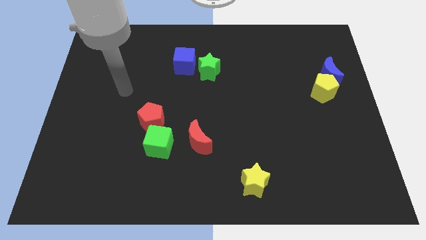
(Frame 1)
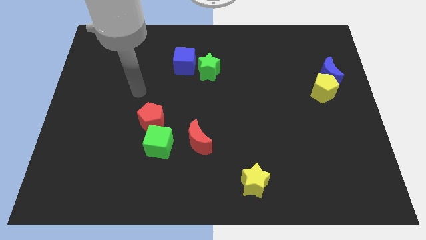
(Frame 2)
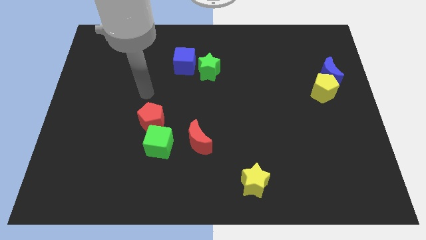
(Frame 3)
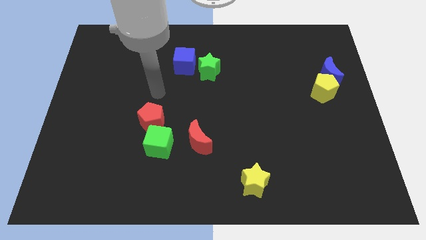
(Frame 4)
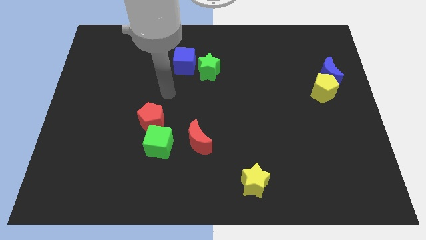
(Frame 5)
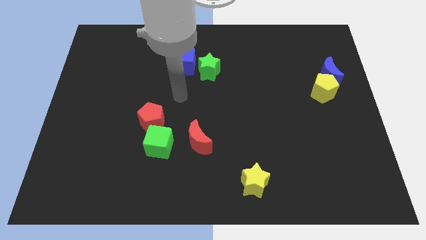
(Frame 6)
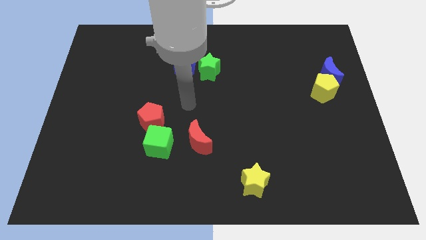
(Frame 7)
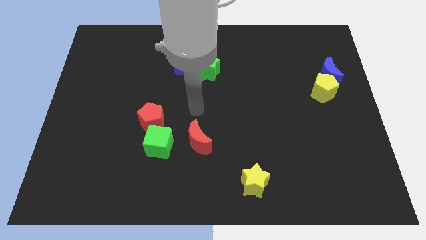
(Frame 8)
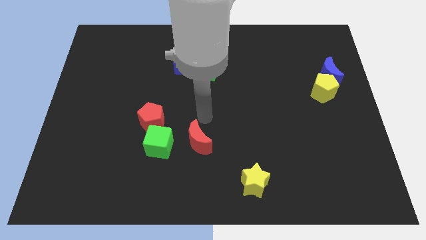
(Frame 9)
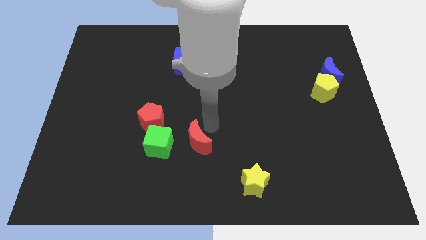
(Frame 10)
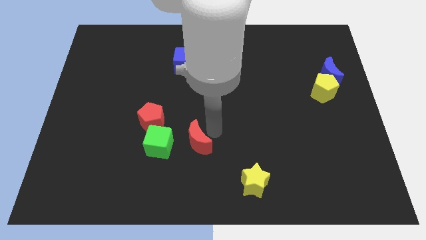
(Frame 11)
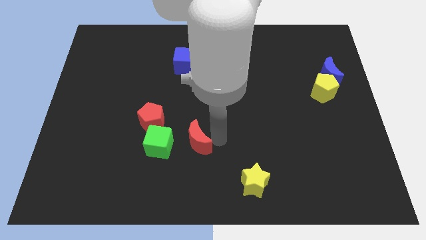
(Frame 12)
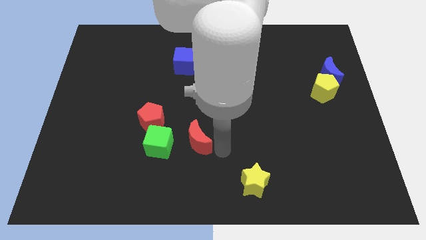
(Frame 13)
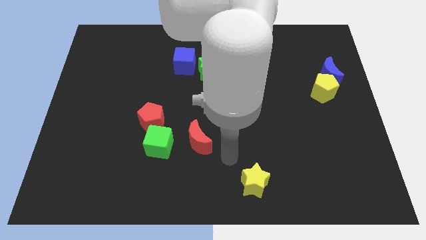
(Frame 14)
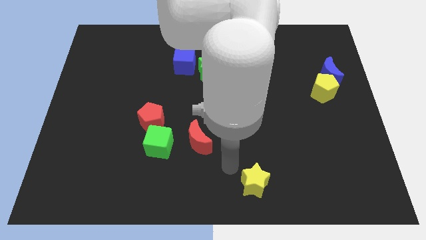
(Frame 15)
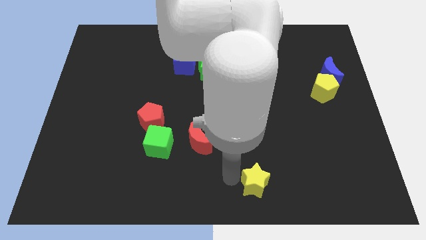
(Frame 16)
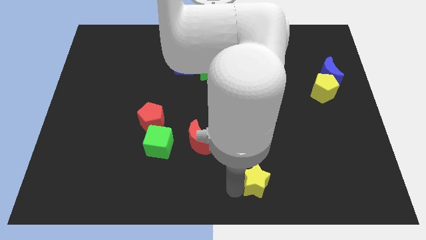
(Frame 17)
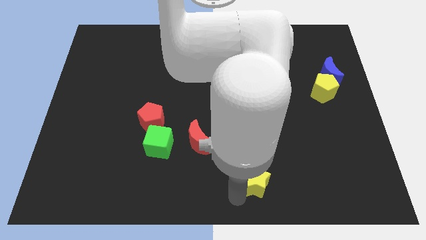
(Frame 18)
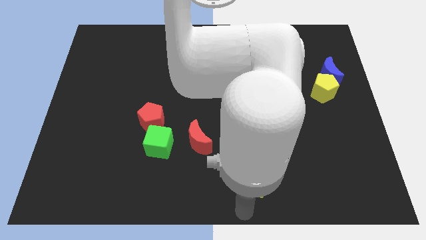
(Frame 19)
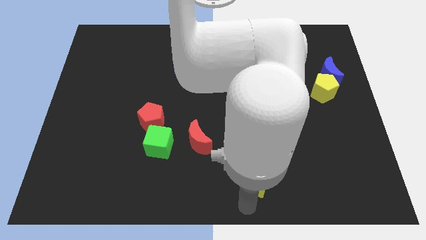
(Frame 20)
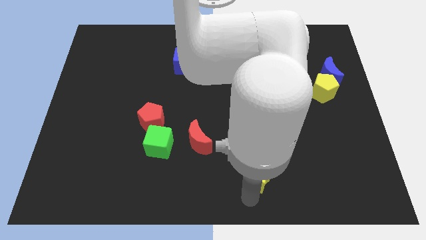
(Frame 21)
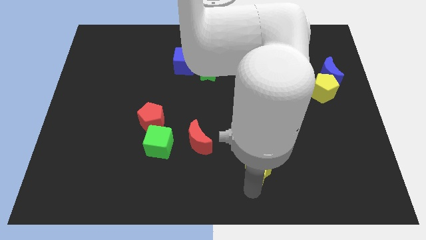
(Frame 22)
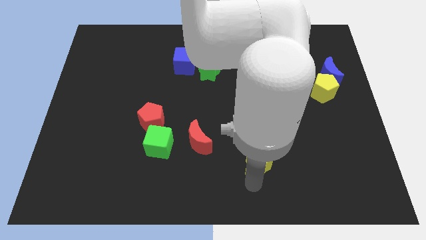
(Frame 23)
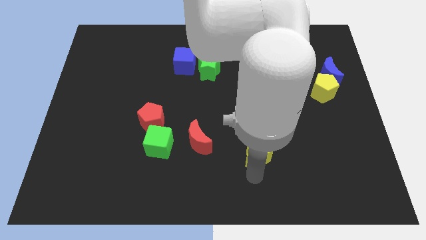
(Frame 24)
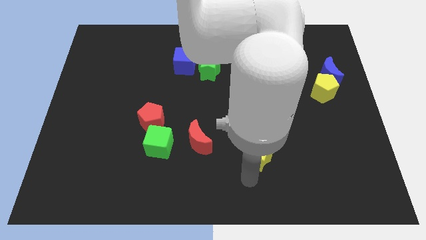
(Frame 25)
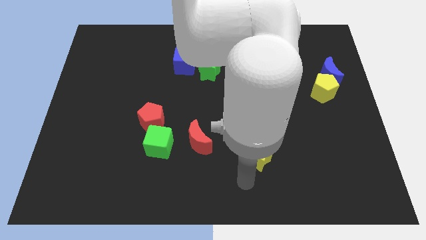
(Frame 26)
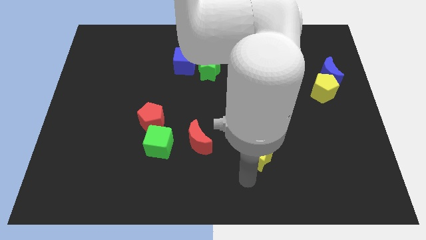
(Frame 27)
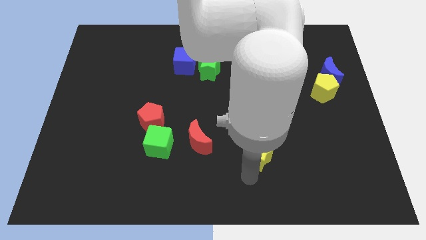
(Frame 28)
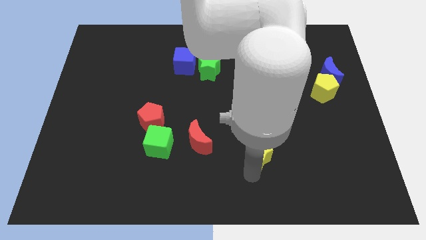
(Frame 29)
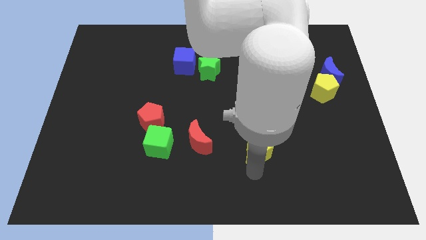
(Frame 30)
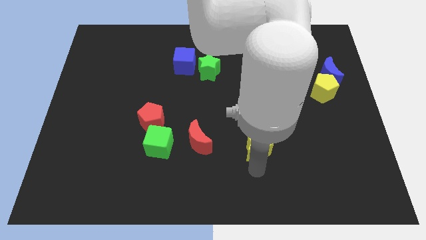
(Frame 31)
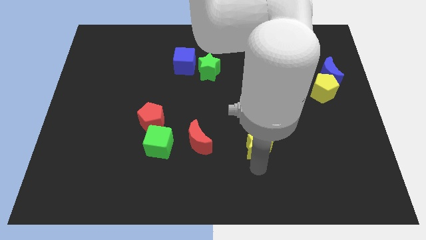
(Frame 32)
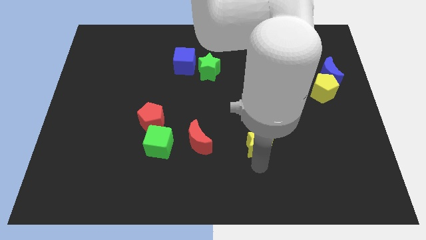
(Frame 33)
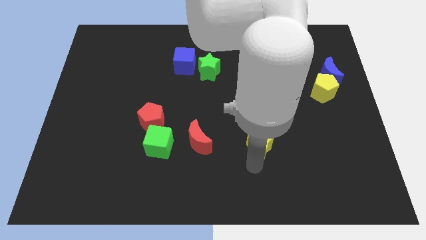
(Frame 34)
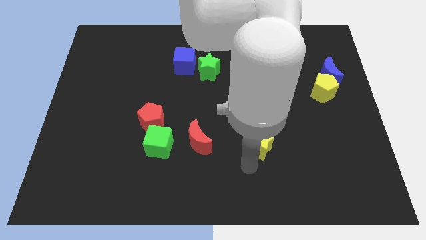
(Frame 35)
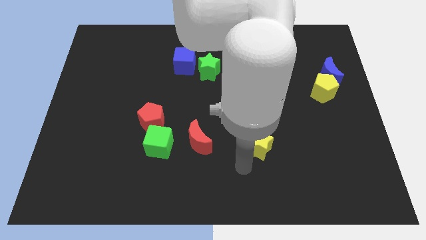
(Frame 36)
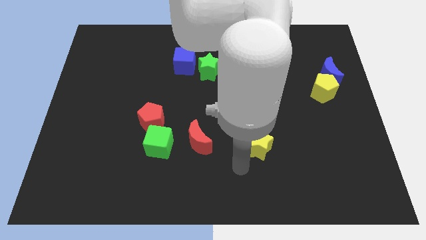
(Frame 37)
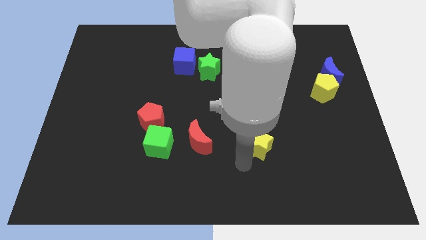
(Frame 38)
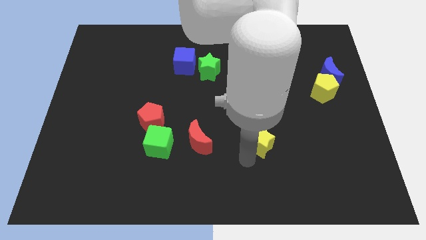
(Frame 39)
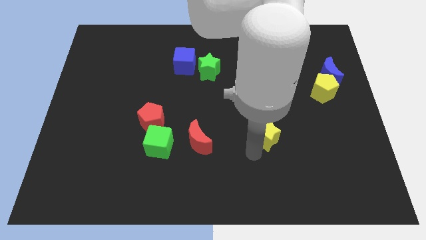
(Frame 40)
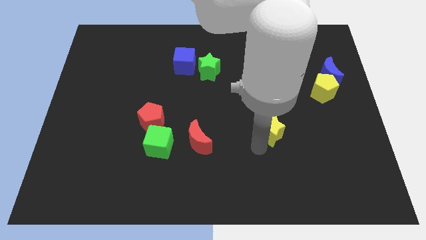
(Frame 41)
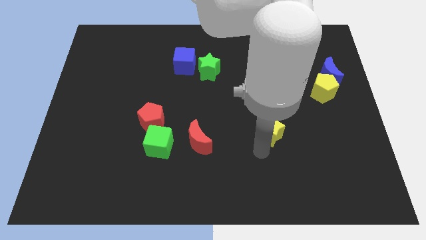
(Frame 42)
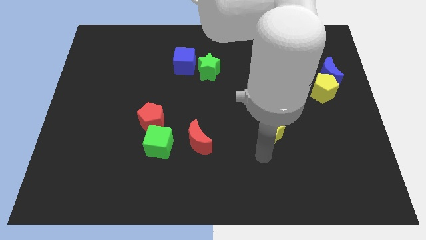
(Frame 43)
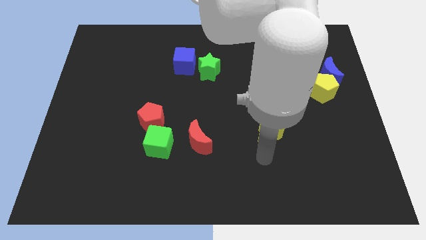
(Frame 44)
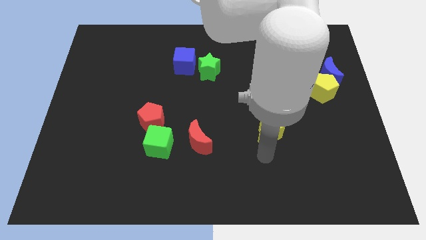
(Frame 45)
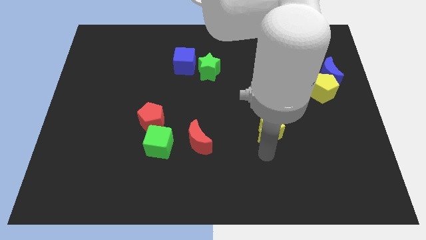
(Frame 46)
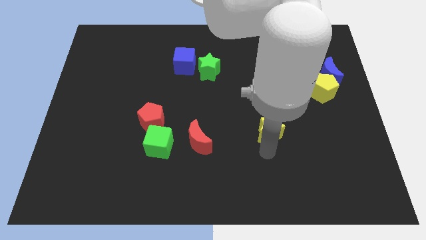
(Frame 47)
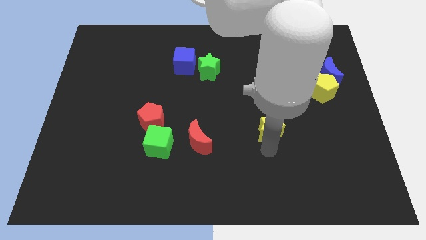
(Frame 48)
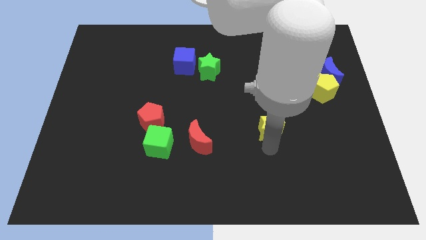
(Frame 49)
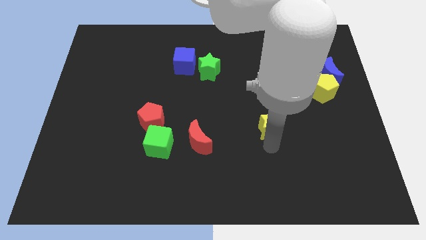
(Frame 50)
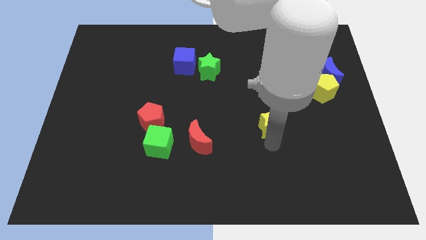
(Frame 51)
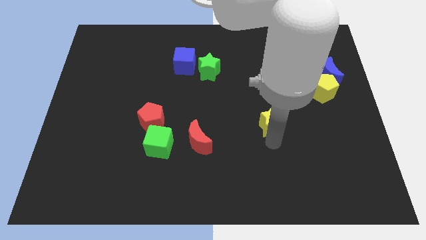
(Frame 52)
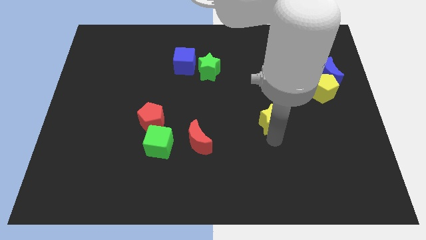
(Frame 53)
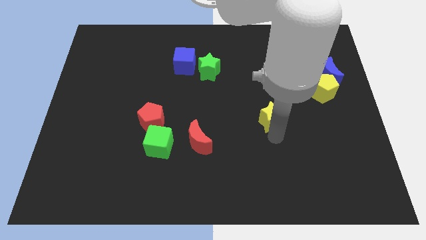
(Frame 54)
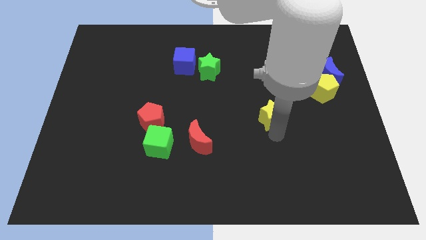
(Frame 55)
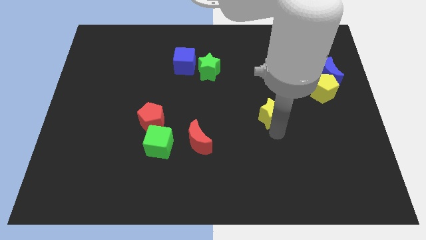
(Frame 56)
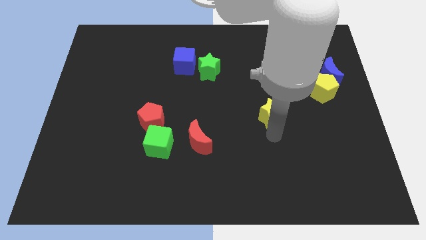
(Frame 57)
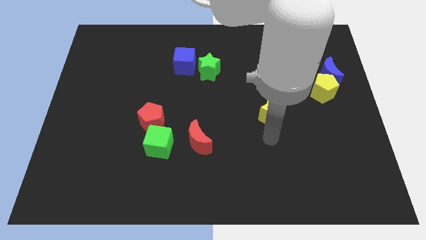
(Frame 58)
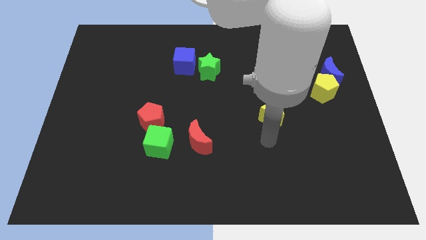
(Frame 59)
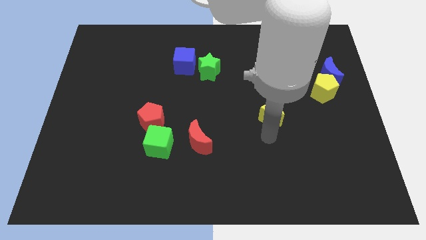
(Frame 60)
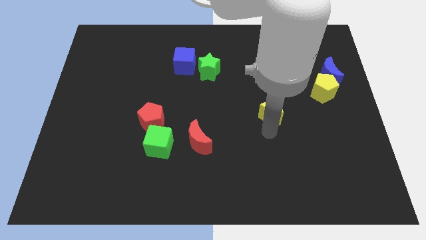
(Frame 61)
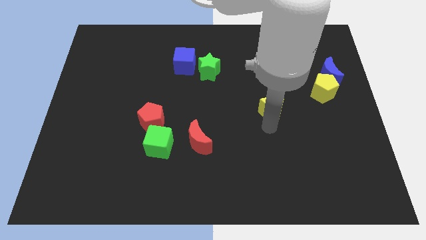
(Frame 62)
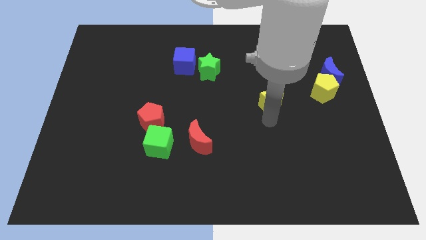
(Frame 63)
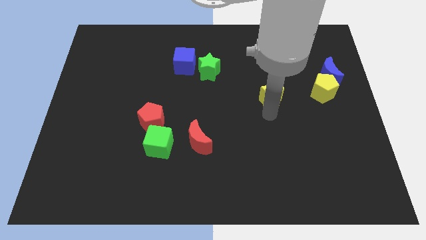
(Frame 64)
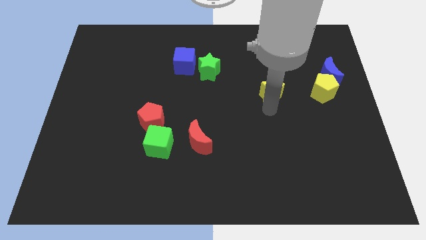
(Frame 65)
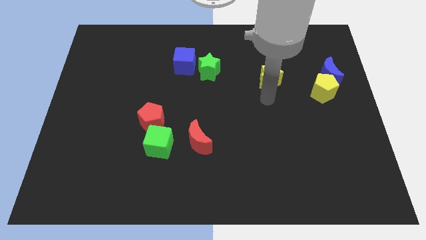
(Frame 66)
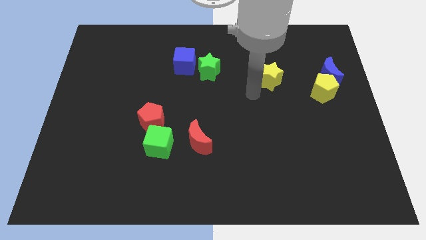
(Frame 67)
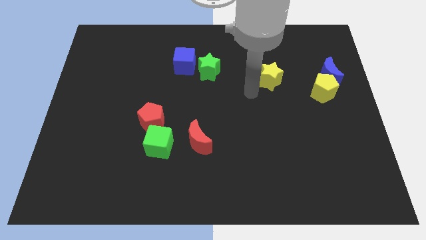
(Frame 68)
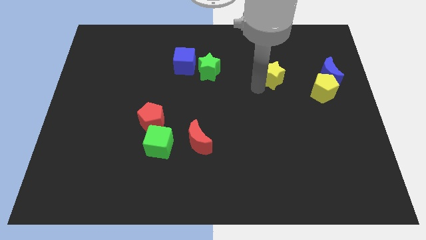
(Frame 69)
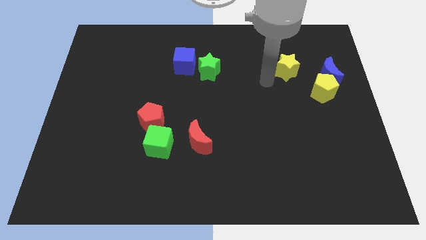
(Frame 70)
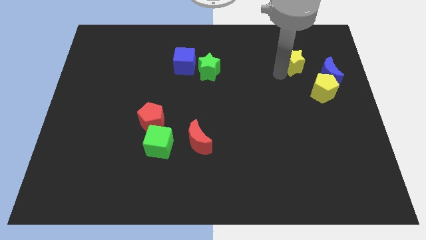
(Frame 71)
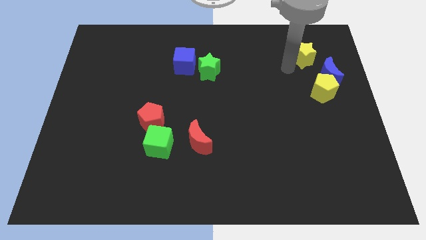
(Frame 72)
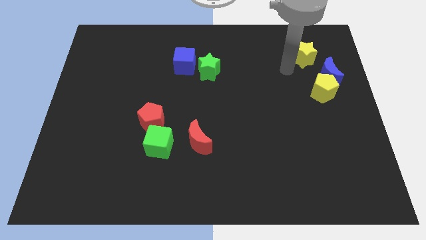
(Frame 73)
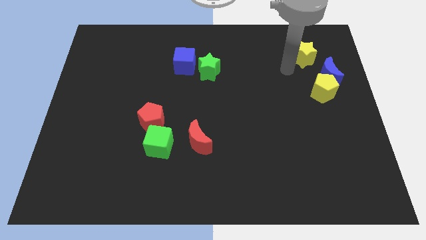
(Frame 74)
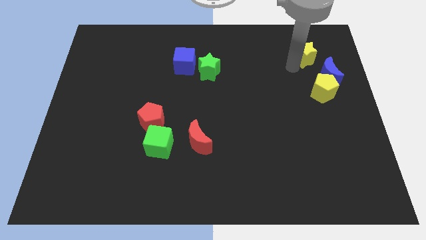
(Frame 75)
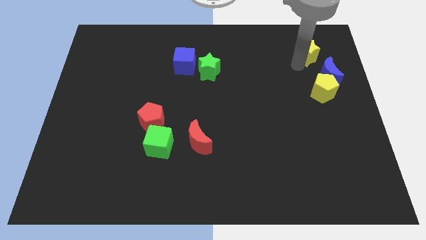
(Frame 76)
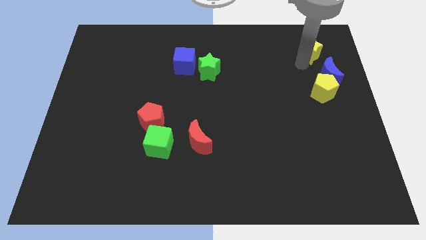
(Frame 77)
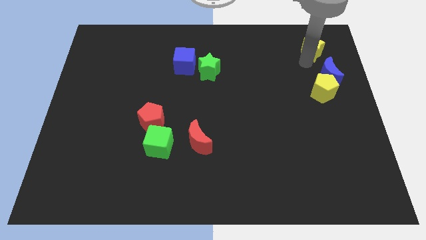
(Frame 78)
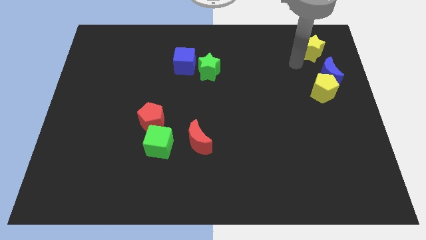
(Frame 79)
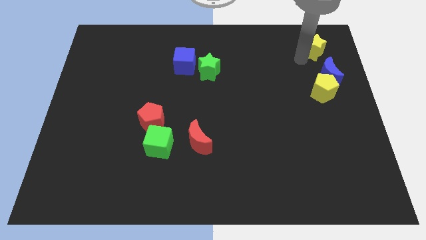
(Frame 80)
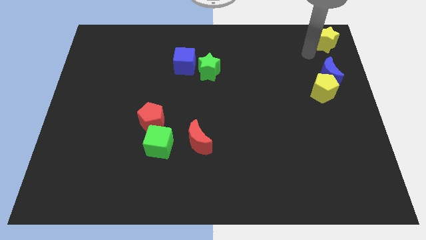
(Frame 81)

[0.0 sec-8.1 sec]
push the yellow star to the top right of the board
